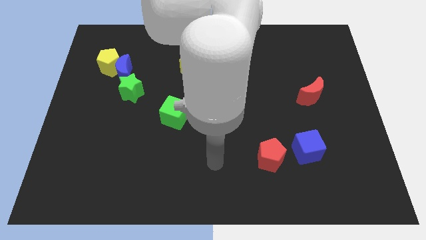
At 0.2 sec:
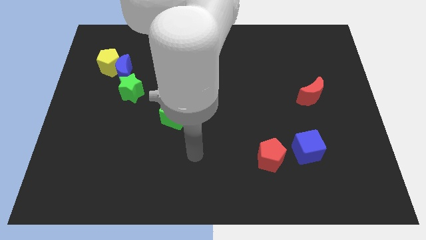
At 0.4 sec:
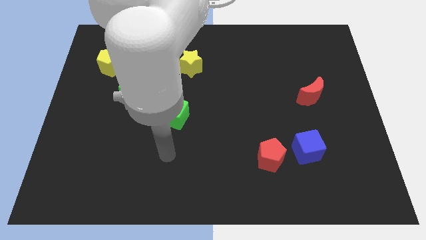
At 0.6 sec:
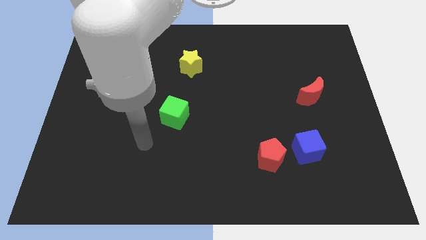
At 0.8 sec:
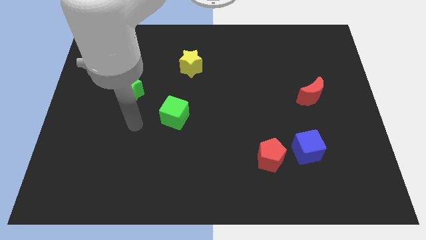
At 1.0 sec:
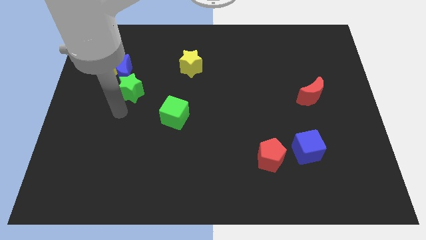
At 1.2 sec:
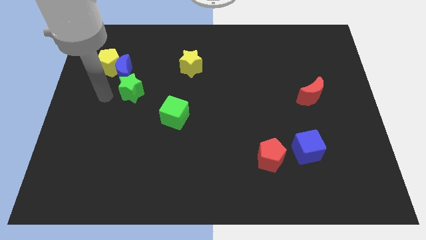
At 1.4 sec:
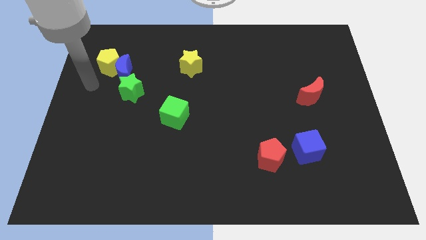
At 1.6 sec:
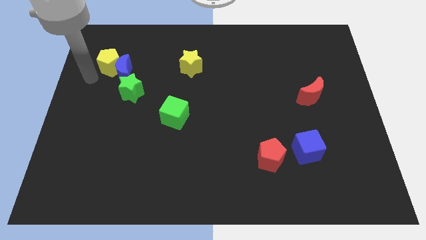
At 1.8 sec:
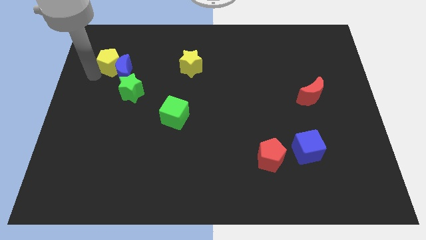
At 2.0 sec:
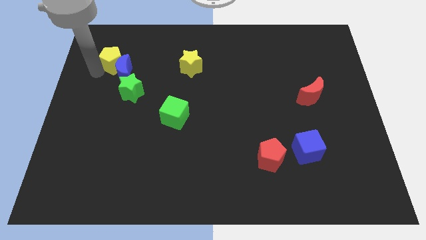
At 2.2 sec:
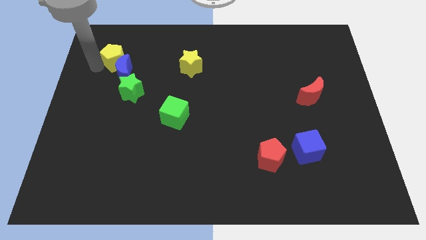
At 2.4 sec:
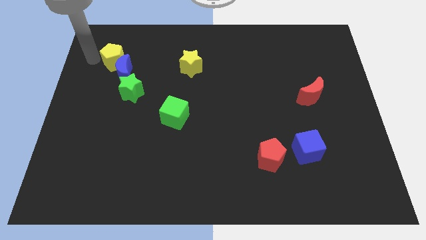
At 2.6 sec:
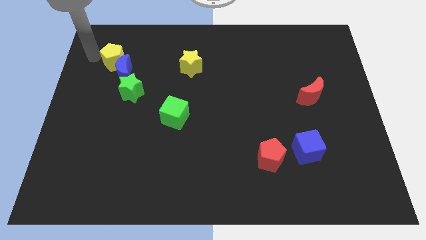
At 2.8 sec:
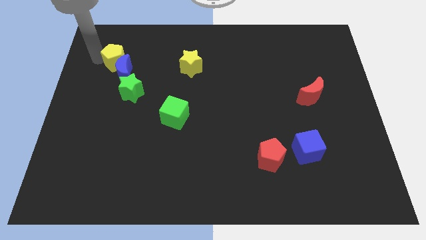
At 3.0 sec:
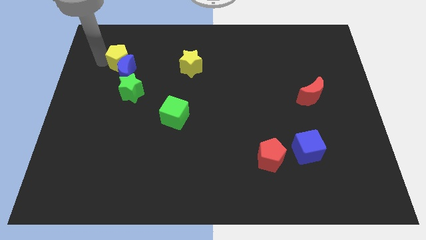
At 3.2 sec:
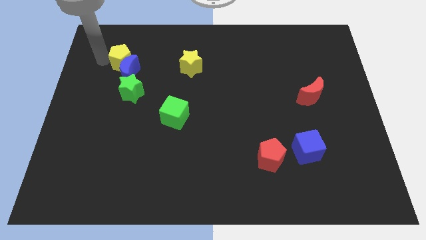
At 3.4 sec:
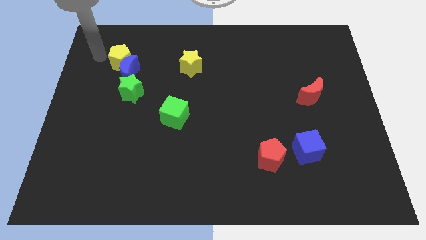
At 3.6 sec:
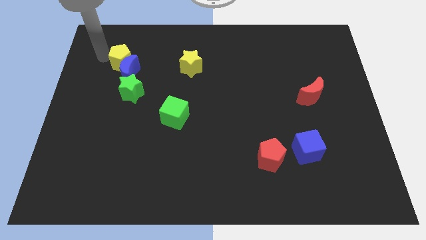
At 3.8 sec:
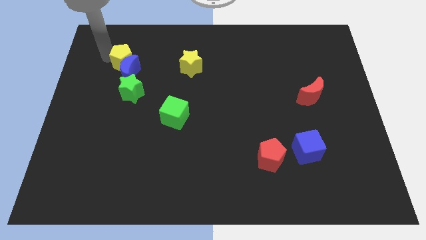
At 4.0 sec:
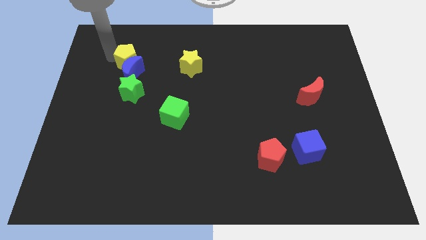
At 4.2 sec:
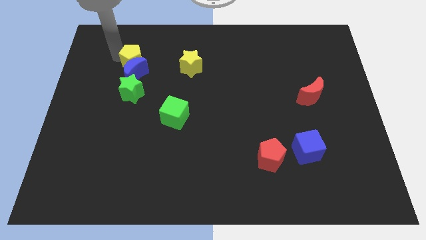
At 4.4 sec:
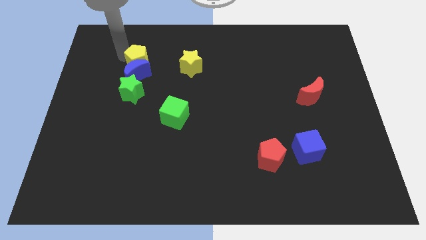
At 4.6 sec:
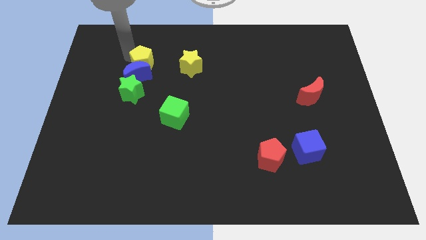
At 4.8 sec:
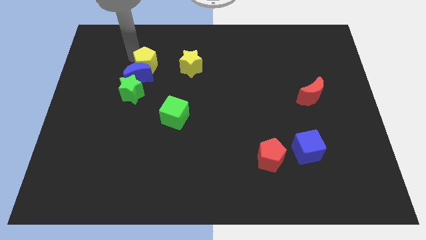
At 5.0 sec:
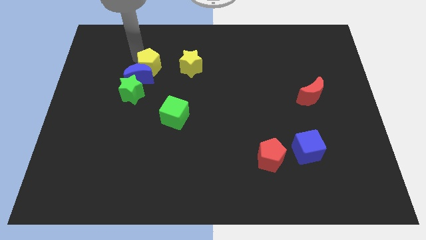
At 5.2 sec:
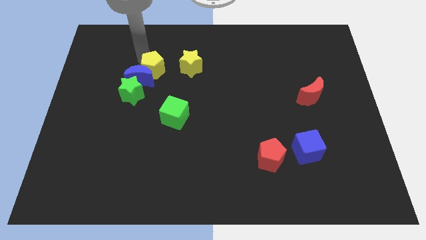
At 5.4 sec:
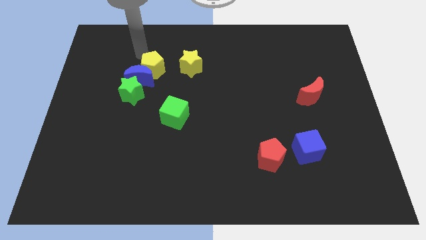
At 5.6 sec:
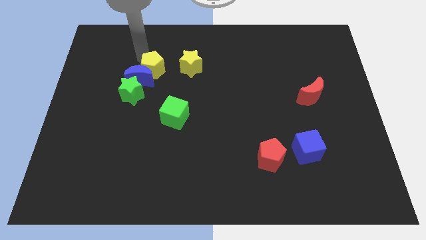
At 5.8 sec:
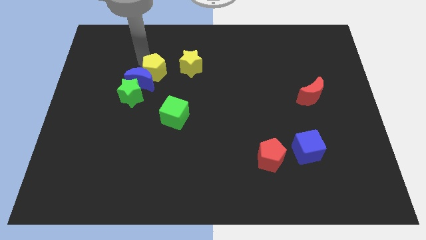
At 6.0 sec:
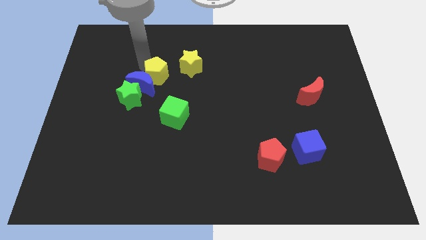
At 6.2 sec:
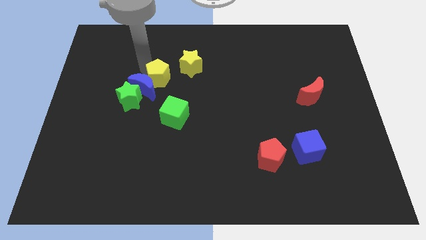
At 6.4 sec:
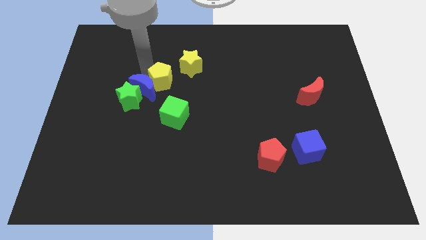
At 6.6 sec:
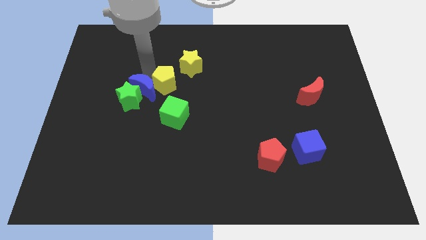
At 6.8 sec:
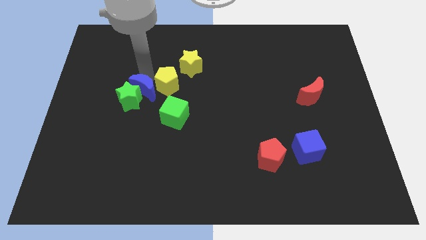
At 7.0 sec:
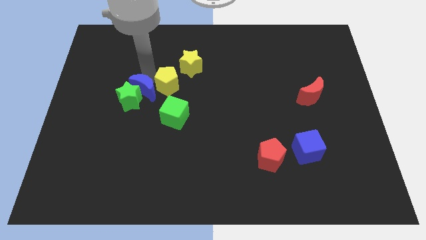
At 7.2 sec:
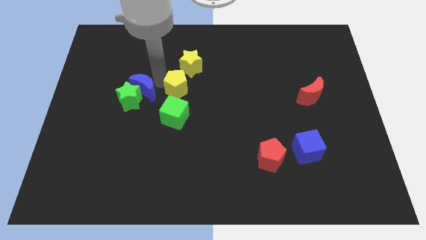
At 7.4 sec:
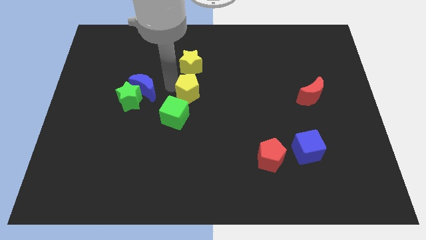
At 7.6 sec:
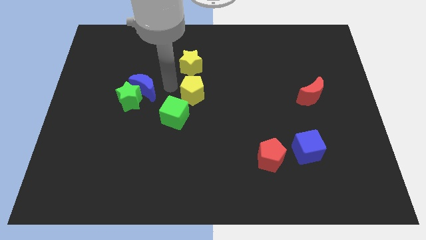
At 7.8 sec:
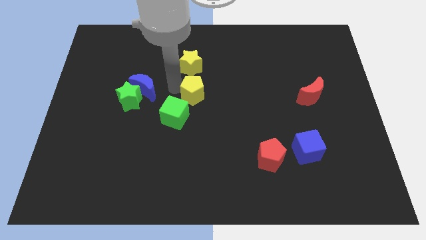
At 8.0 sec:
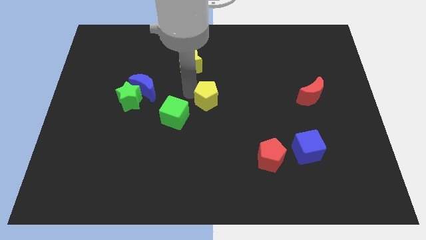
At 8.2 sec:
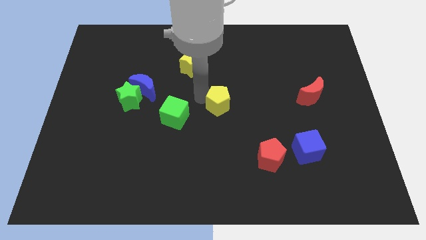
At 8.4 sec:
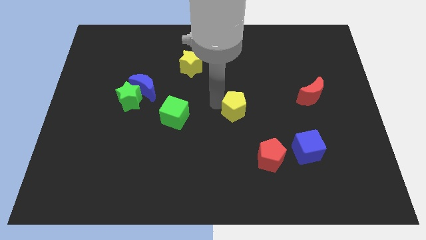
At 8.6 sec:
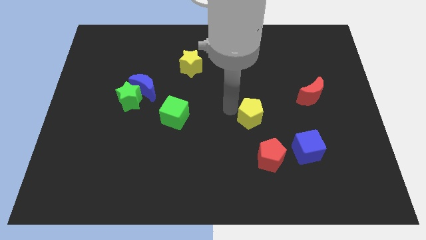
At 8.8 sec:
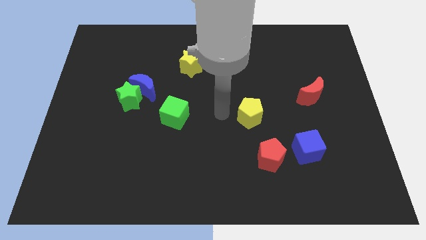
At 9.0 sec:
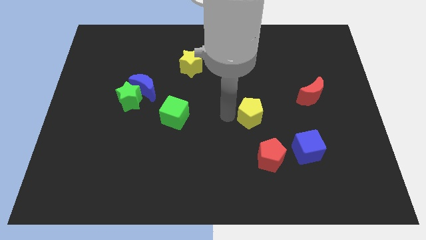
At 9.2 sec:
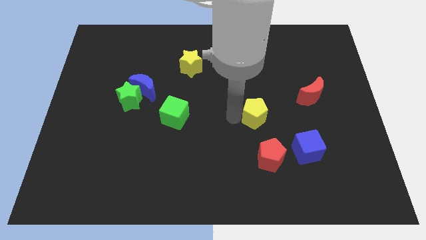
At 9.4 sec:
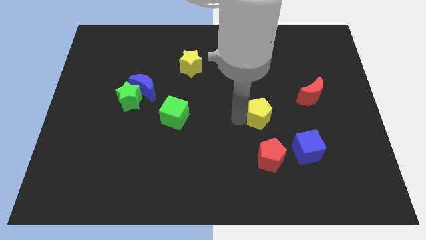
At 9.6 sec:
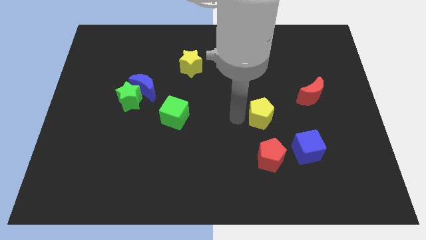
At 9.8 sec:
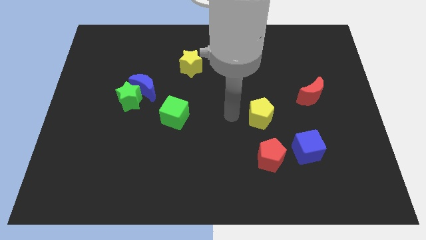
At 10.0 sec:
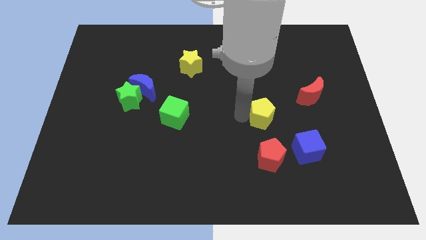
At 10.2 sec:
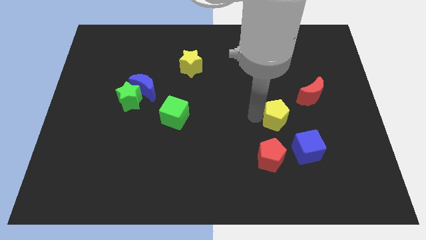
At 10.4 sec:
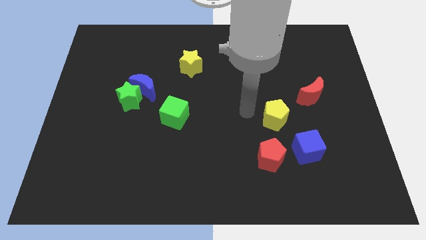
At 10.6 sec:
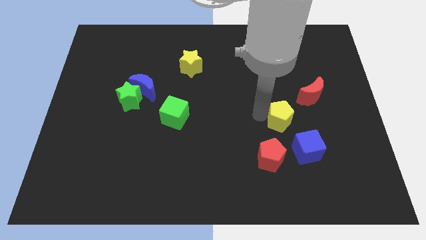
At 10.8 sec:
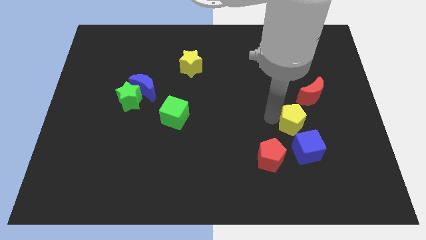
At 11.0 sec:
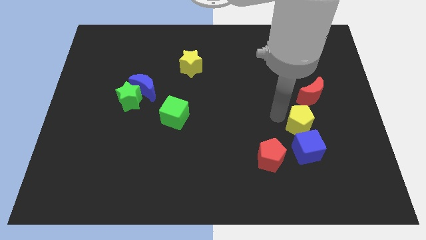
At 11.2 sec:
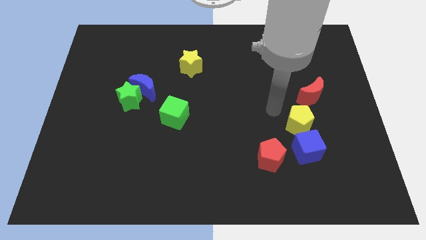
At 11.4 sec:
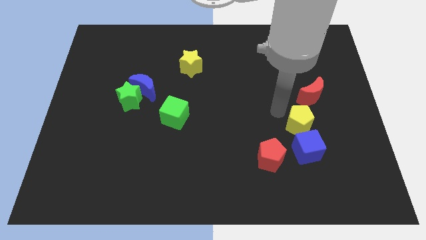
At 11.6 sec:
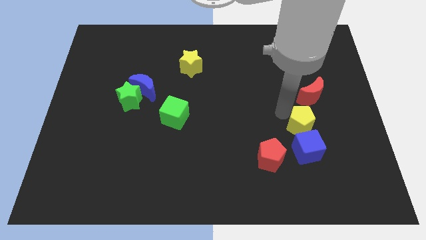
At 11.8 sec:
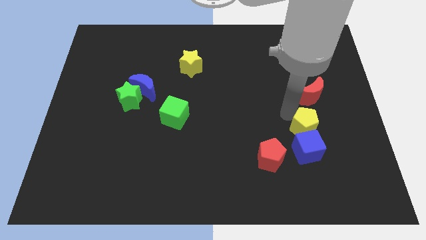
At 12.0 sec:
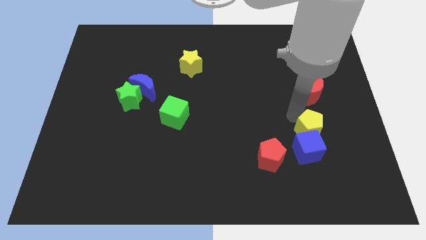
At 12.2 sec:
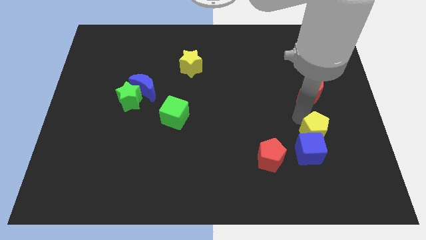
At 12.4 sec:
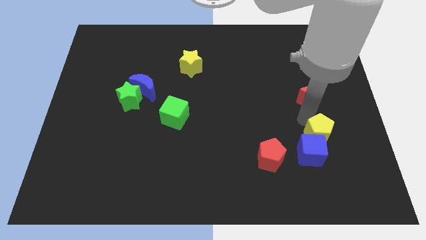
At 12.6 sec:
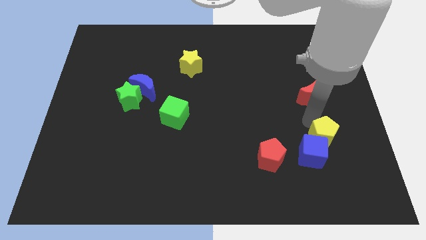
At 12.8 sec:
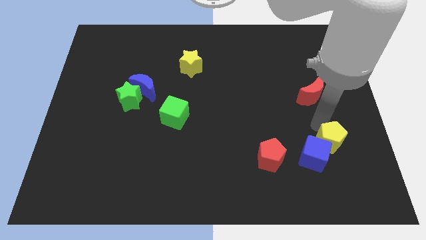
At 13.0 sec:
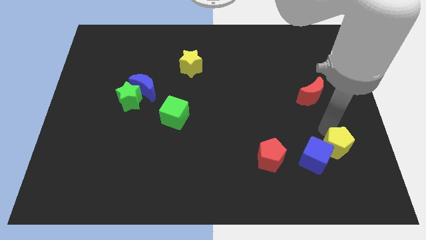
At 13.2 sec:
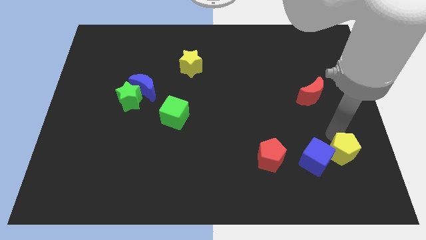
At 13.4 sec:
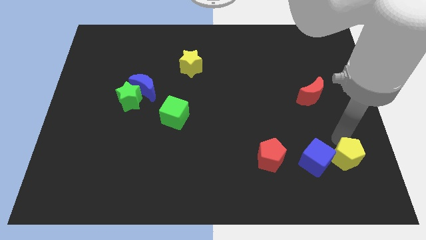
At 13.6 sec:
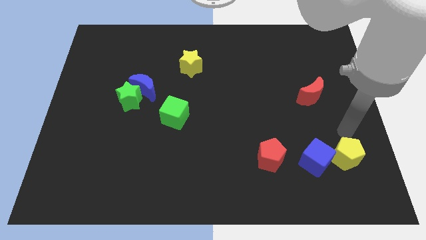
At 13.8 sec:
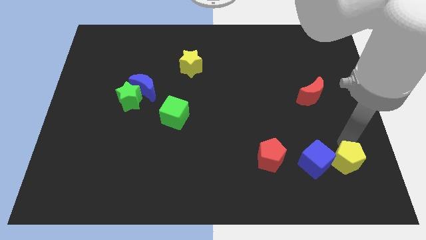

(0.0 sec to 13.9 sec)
push the yellow pentagon to the bottom right side of the blue cube
